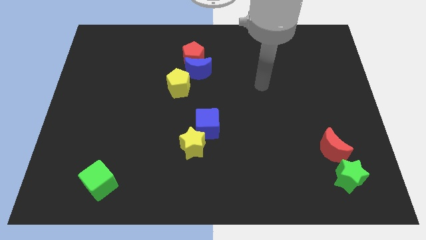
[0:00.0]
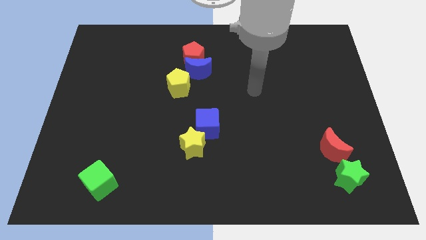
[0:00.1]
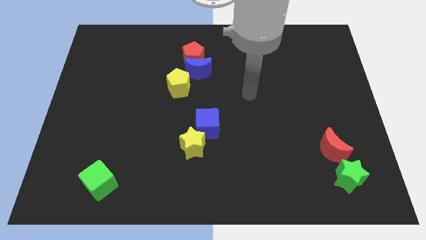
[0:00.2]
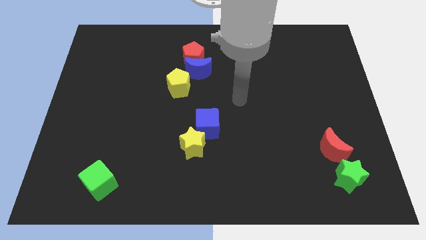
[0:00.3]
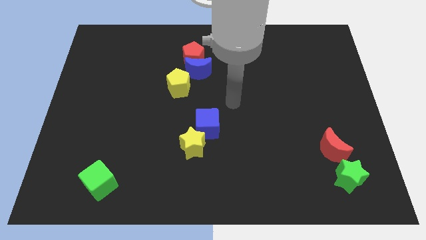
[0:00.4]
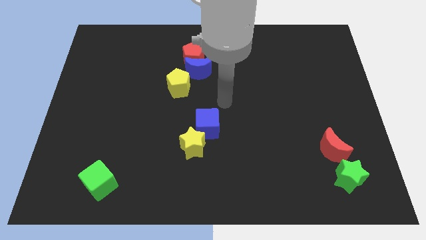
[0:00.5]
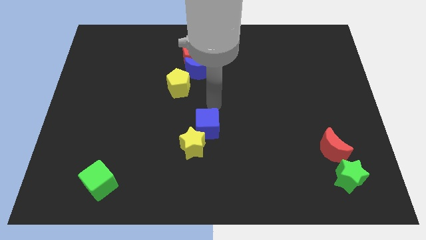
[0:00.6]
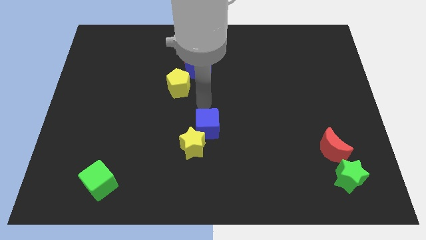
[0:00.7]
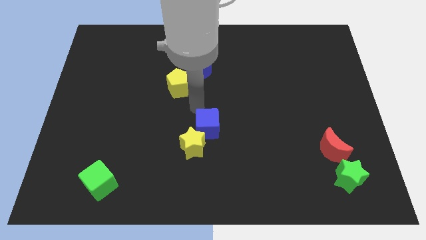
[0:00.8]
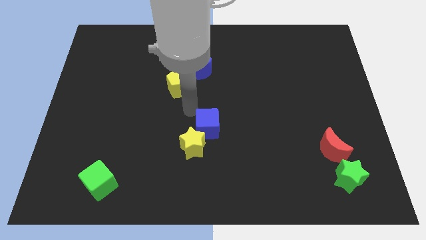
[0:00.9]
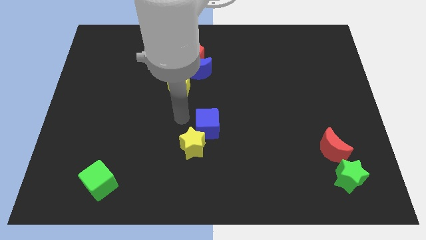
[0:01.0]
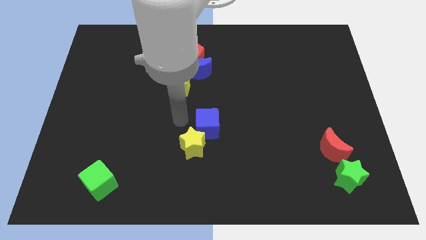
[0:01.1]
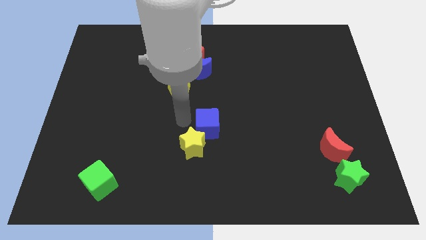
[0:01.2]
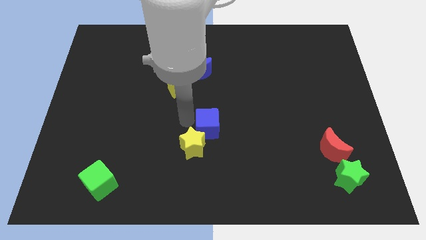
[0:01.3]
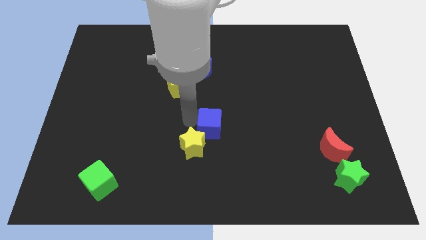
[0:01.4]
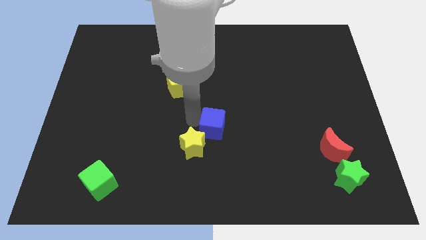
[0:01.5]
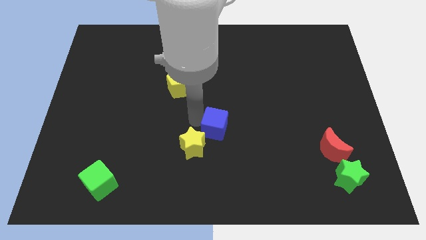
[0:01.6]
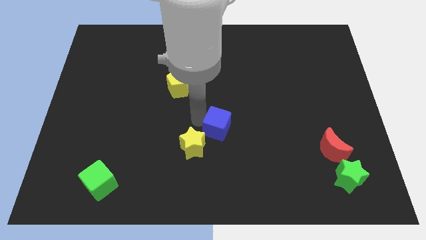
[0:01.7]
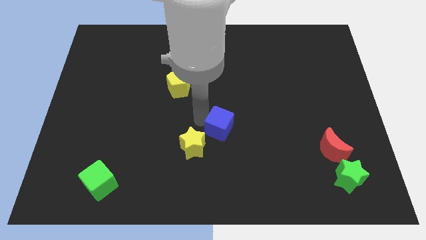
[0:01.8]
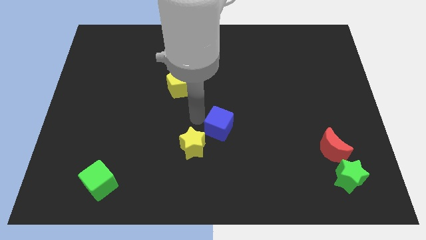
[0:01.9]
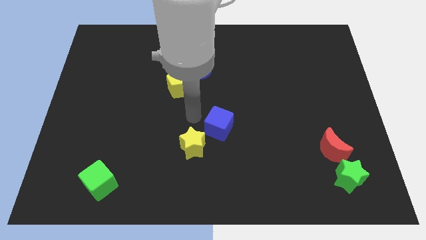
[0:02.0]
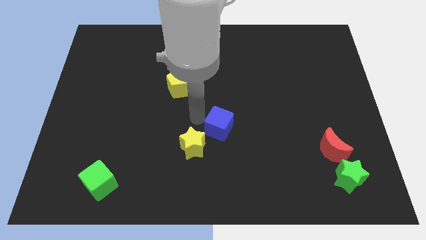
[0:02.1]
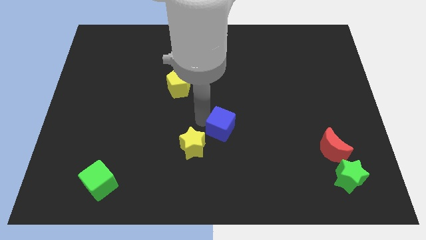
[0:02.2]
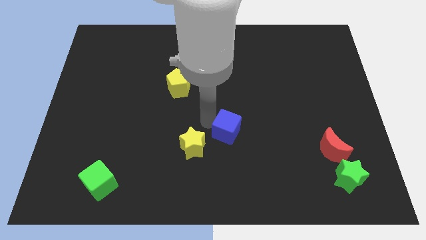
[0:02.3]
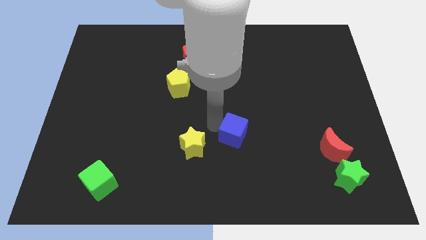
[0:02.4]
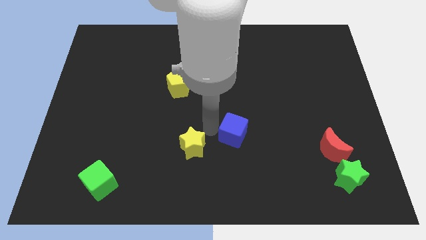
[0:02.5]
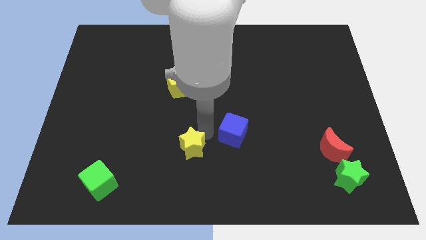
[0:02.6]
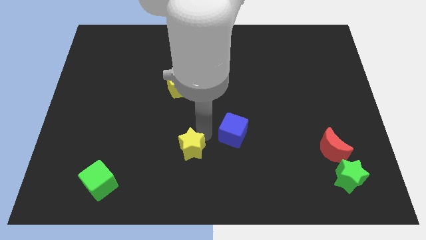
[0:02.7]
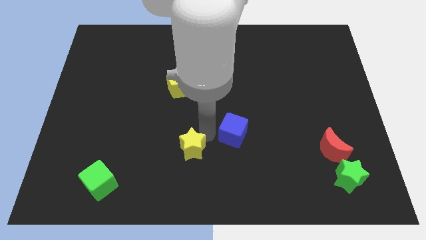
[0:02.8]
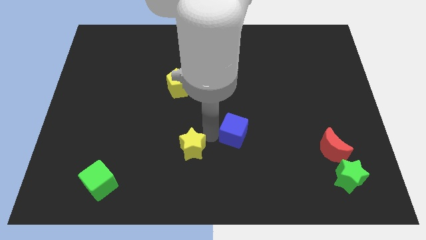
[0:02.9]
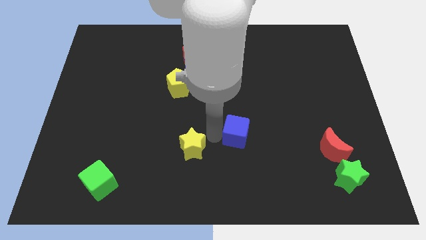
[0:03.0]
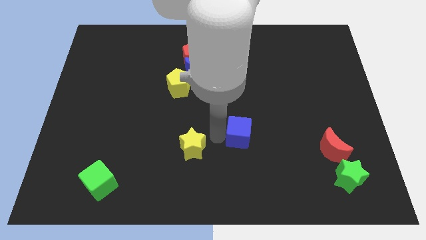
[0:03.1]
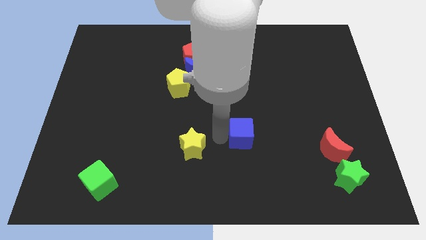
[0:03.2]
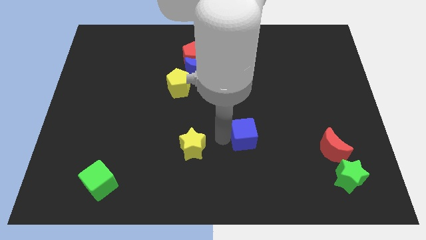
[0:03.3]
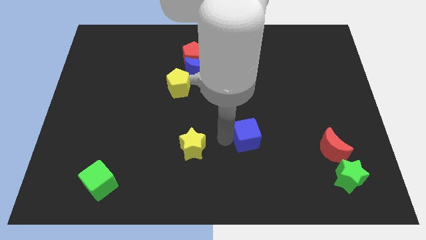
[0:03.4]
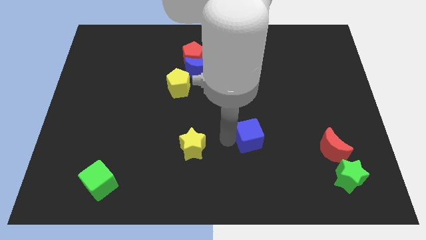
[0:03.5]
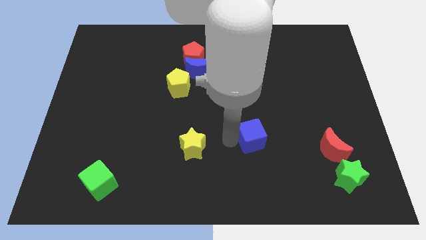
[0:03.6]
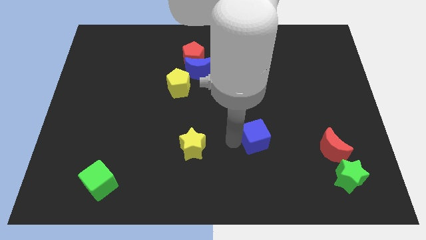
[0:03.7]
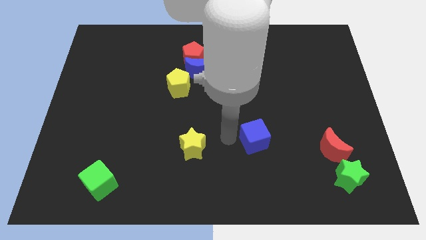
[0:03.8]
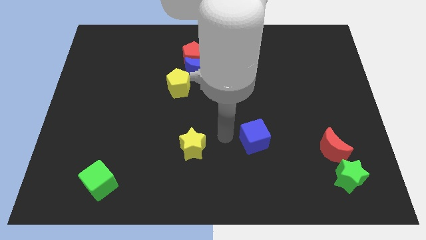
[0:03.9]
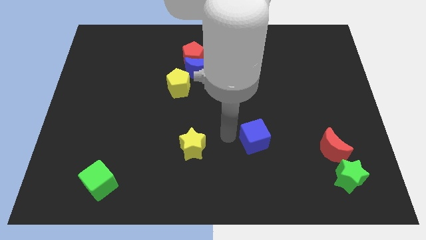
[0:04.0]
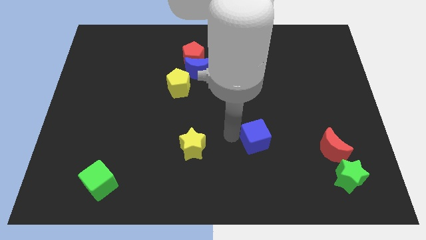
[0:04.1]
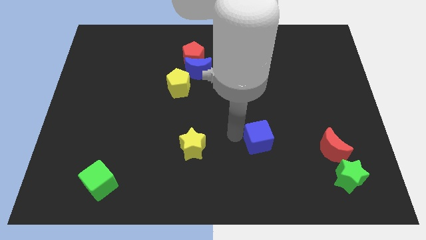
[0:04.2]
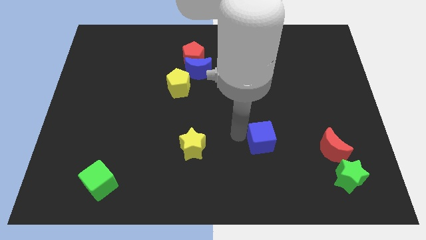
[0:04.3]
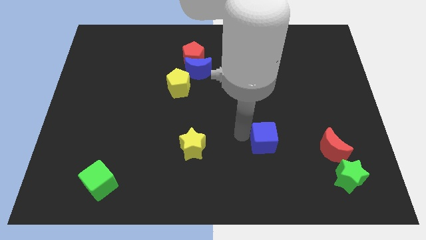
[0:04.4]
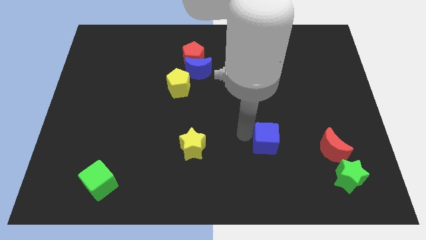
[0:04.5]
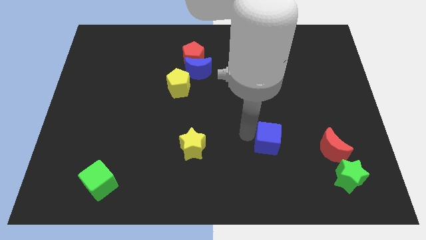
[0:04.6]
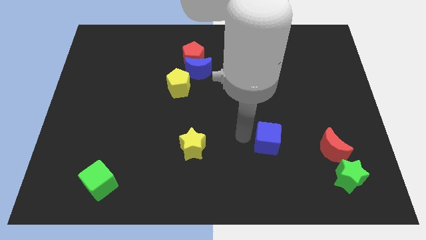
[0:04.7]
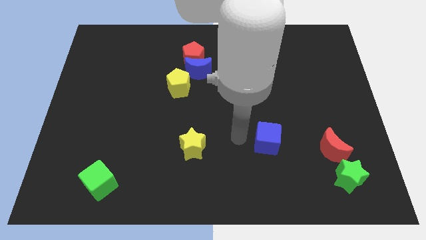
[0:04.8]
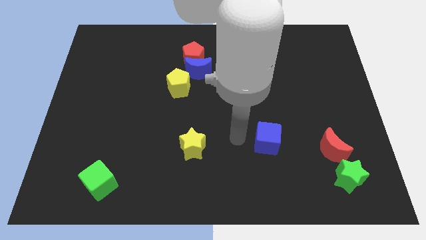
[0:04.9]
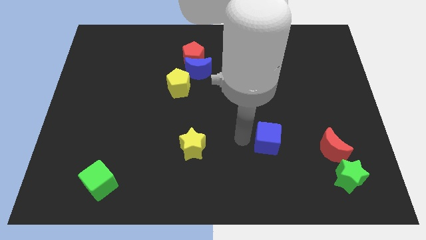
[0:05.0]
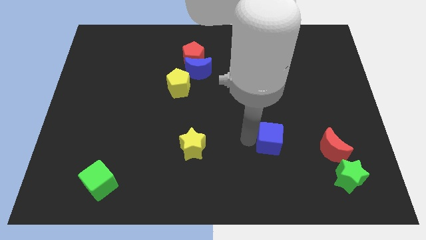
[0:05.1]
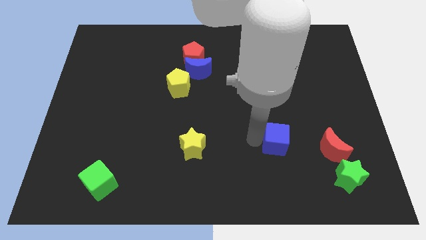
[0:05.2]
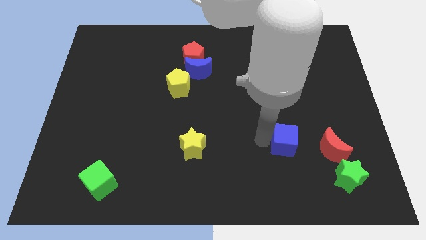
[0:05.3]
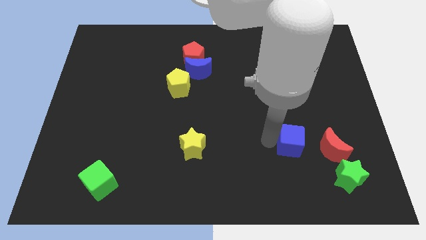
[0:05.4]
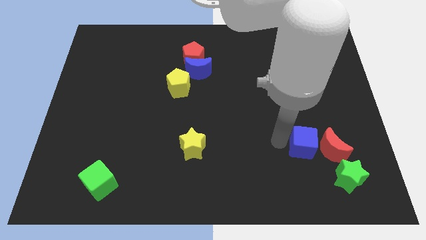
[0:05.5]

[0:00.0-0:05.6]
put the blue cube next to the red moon

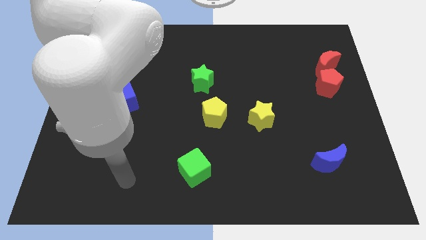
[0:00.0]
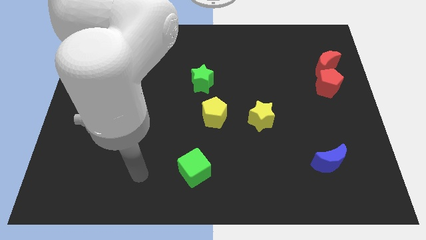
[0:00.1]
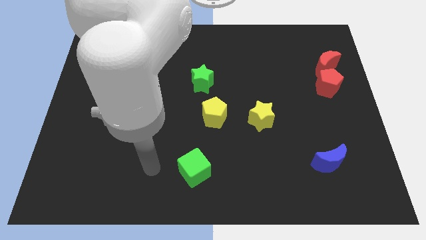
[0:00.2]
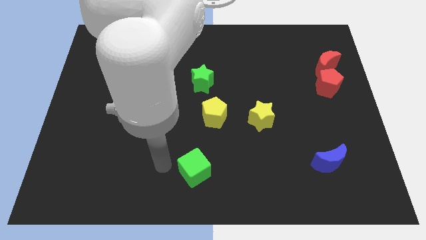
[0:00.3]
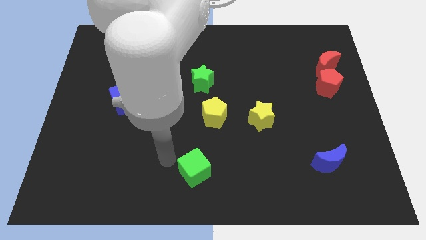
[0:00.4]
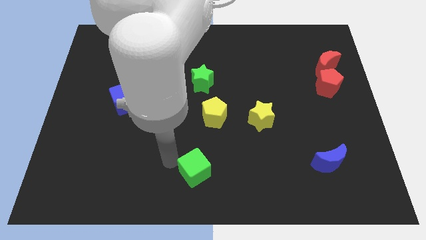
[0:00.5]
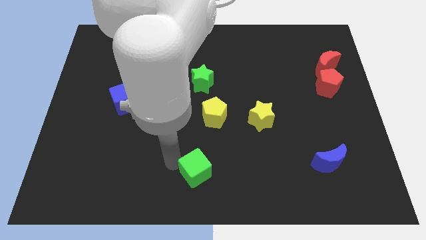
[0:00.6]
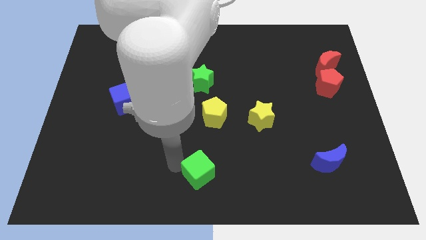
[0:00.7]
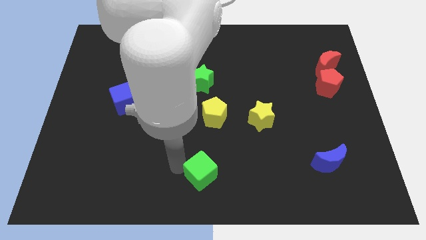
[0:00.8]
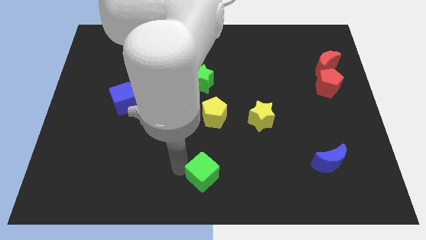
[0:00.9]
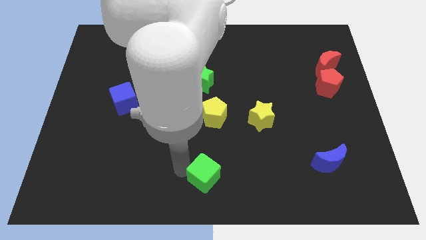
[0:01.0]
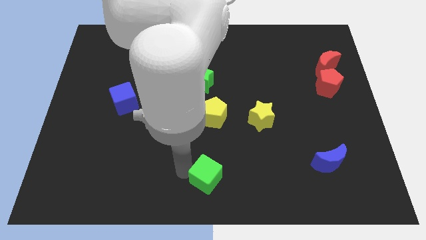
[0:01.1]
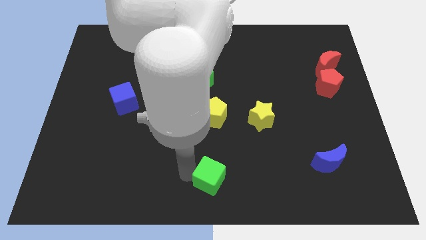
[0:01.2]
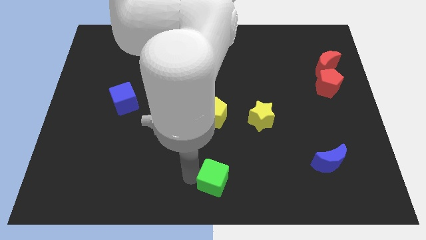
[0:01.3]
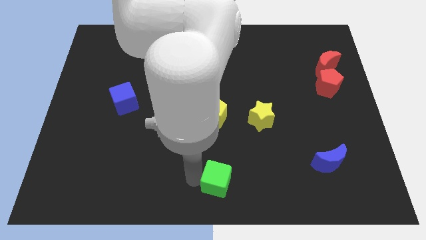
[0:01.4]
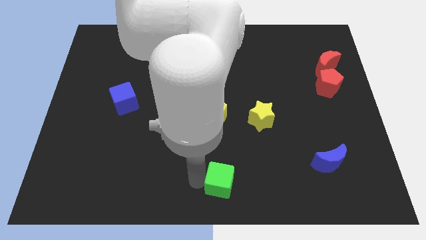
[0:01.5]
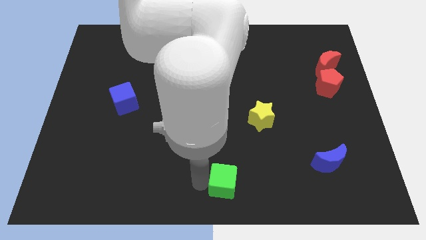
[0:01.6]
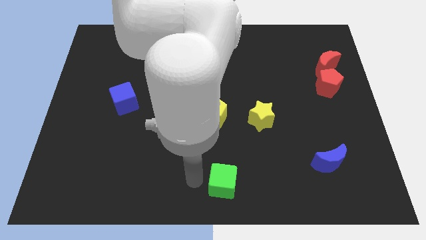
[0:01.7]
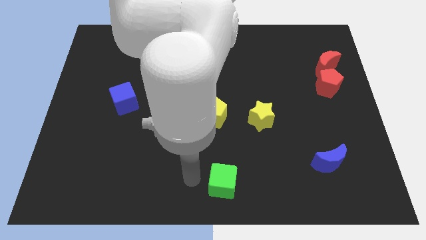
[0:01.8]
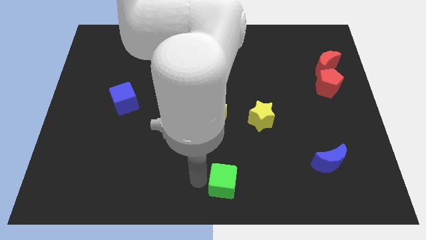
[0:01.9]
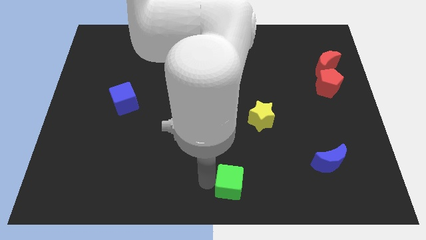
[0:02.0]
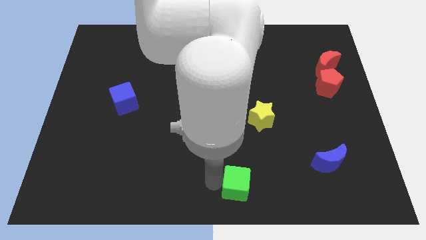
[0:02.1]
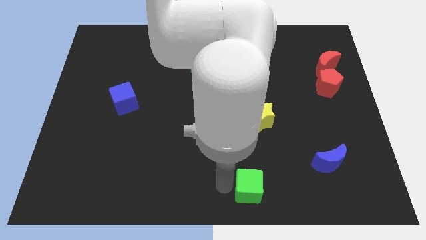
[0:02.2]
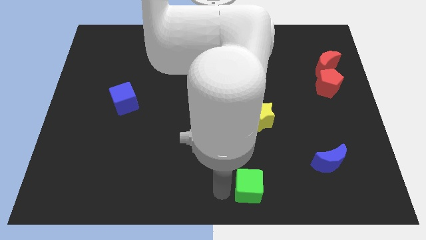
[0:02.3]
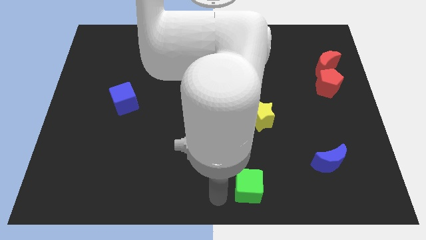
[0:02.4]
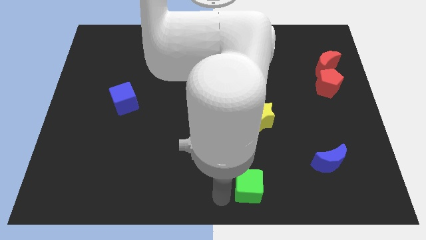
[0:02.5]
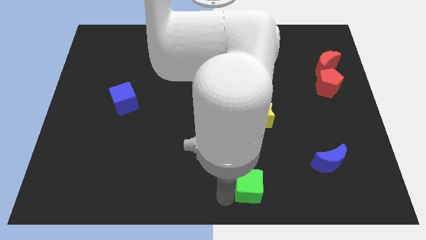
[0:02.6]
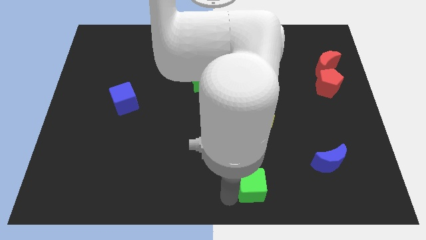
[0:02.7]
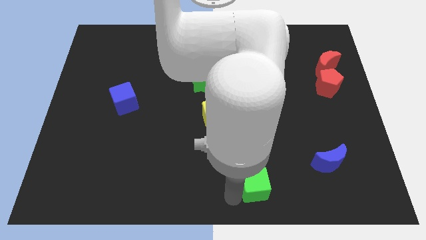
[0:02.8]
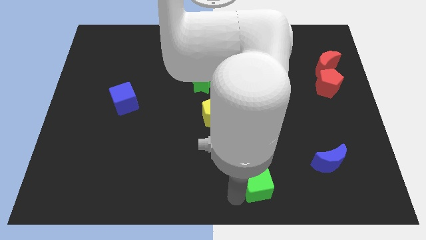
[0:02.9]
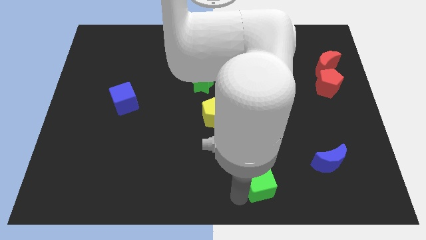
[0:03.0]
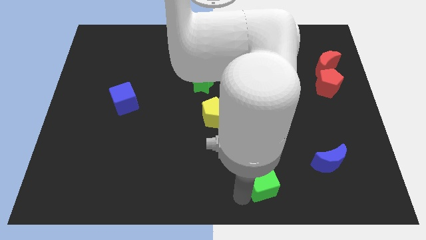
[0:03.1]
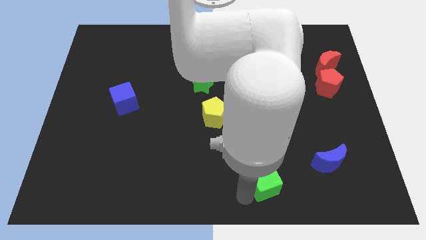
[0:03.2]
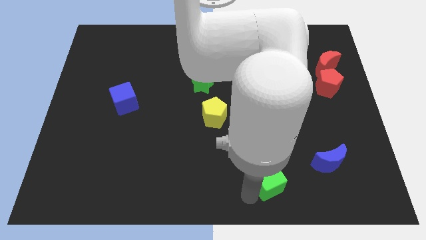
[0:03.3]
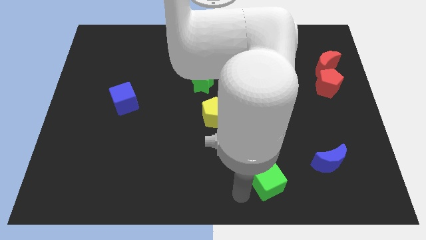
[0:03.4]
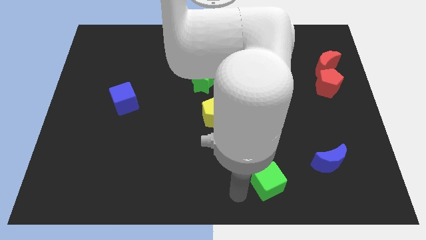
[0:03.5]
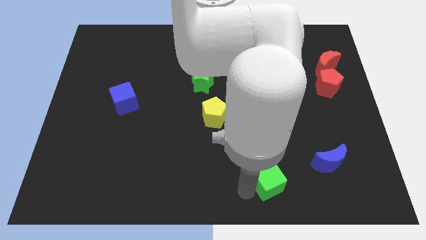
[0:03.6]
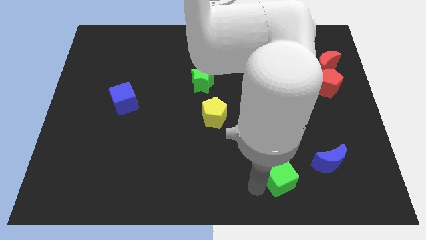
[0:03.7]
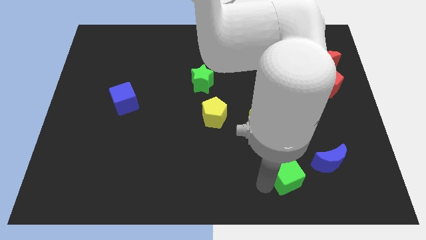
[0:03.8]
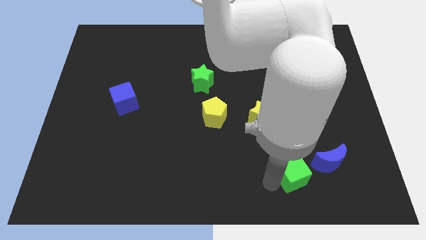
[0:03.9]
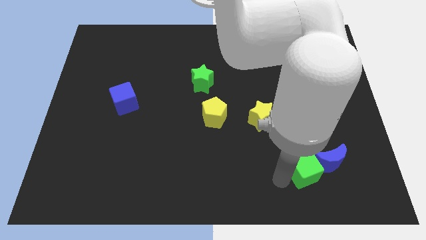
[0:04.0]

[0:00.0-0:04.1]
push the green cube next to the blue moon
